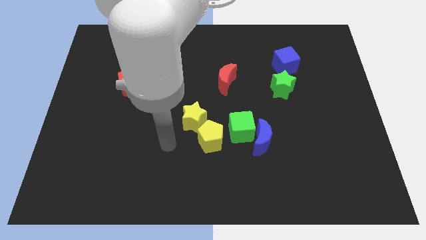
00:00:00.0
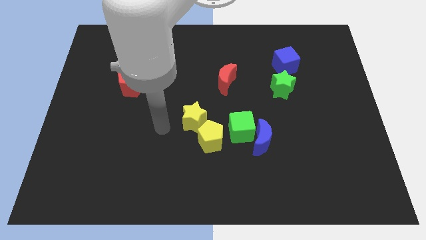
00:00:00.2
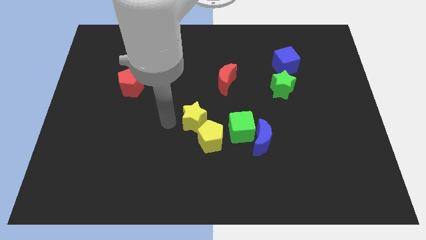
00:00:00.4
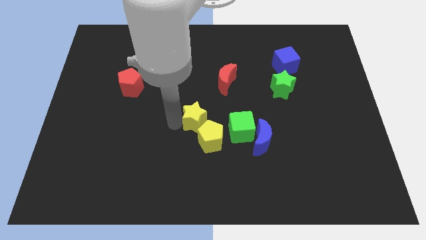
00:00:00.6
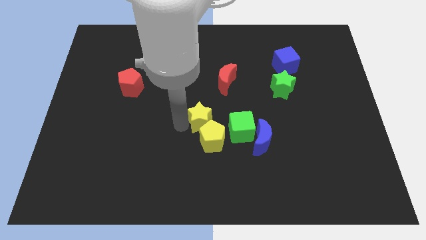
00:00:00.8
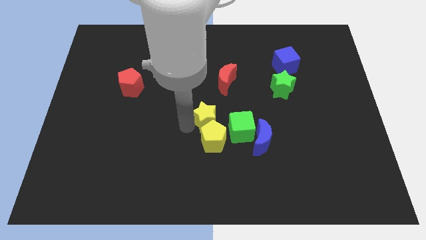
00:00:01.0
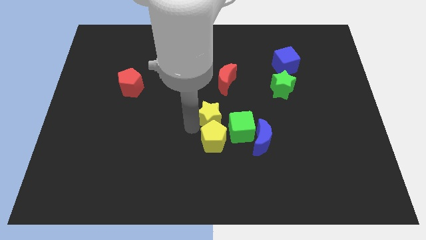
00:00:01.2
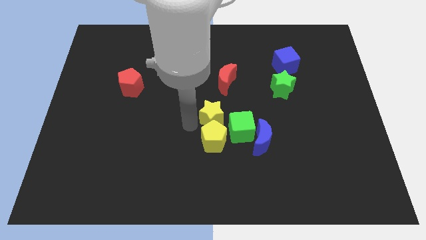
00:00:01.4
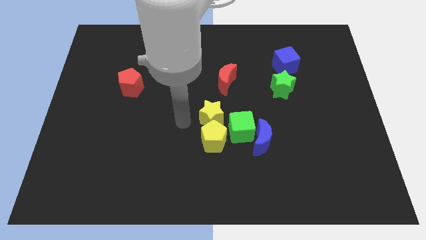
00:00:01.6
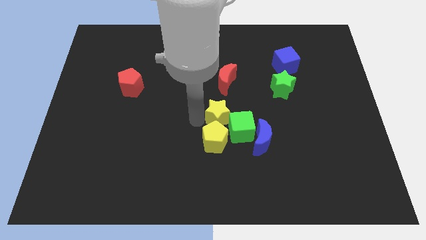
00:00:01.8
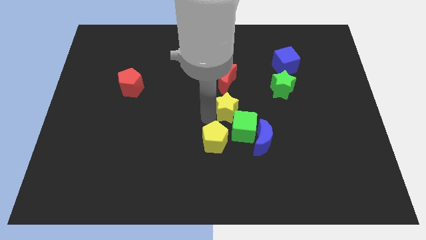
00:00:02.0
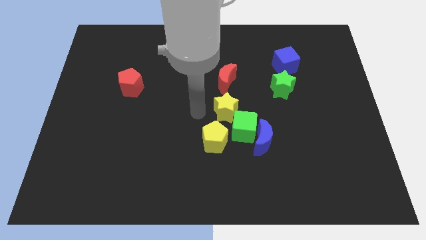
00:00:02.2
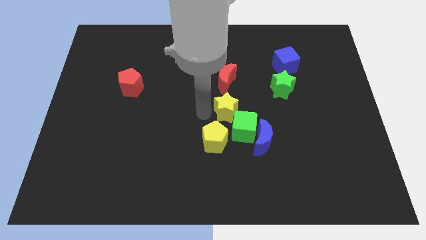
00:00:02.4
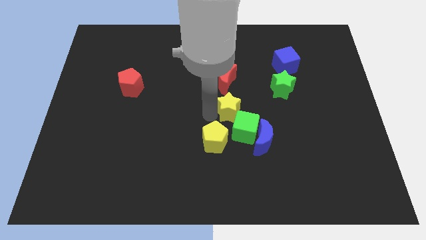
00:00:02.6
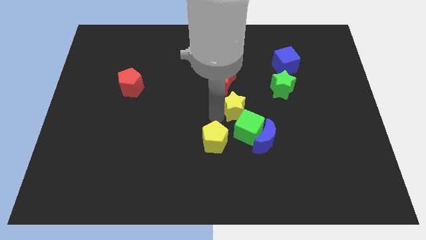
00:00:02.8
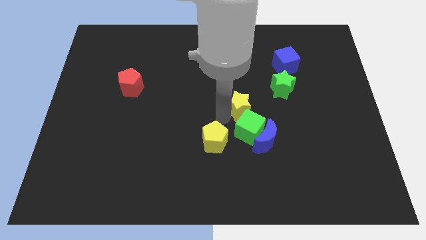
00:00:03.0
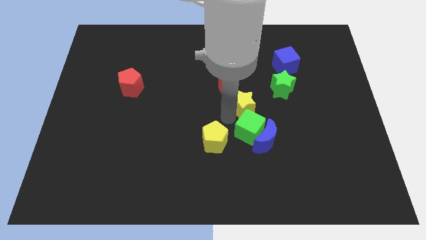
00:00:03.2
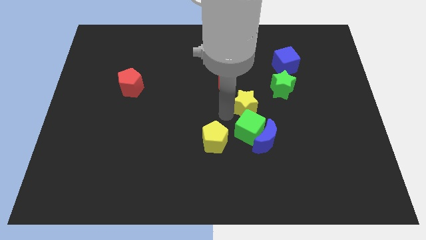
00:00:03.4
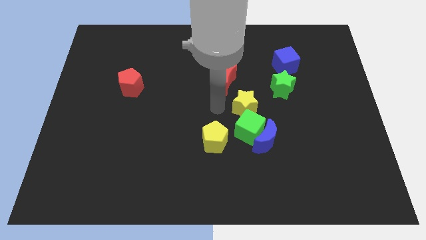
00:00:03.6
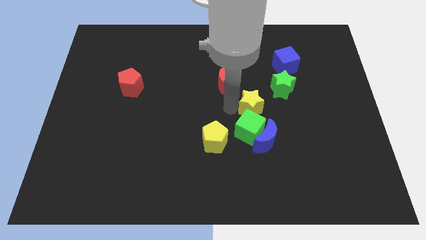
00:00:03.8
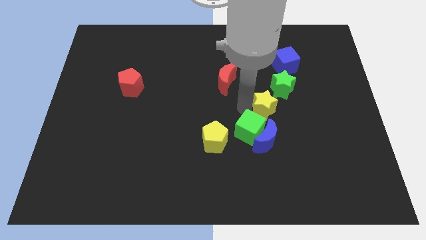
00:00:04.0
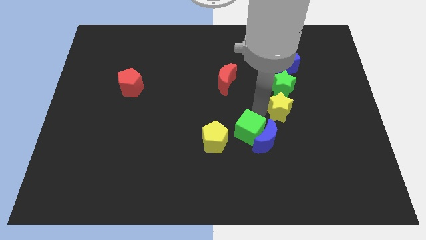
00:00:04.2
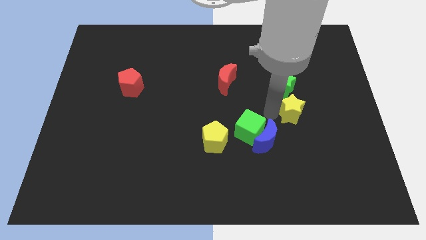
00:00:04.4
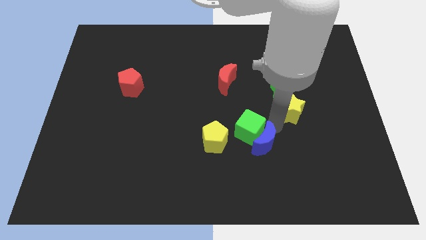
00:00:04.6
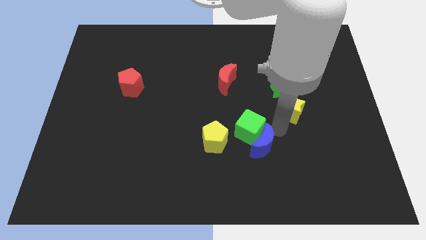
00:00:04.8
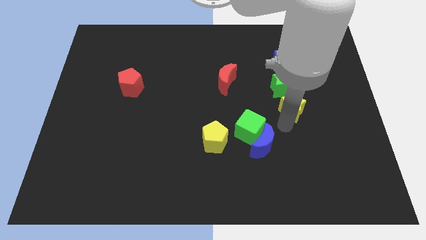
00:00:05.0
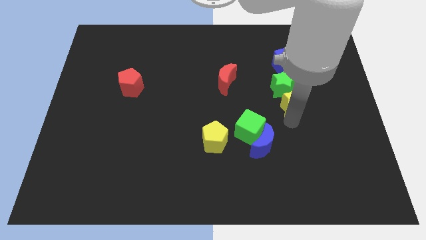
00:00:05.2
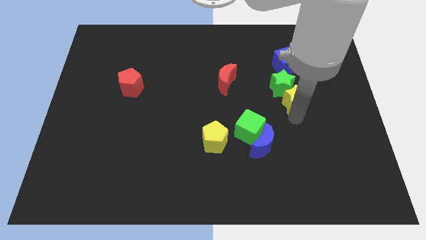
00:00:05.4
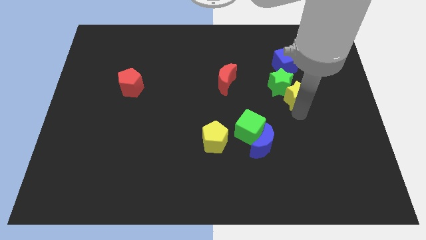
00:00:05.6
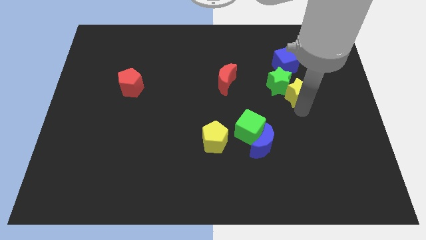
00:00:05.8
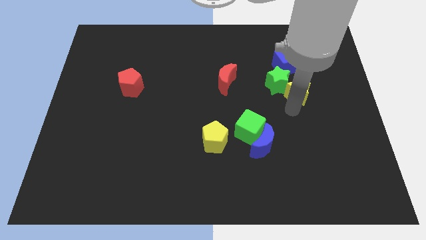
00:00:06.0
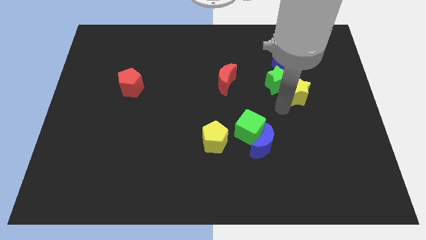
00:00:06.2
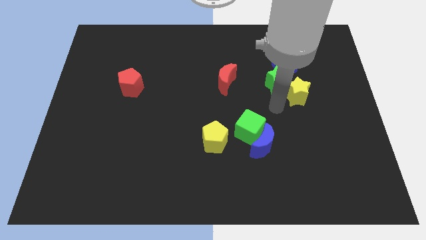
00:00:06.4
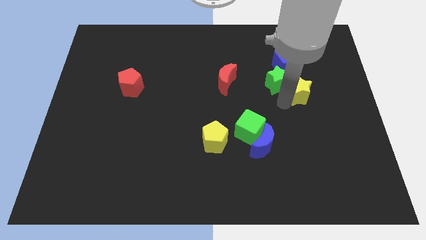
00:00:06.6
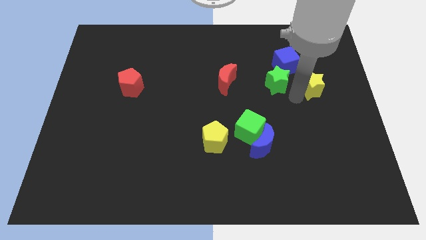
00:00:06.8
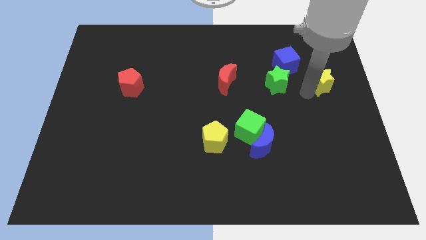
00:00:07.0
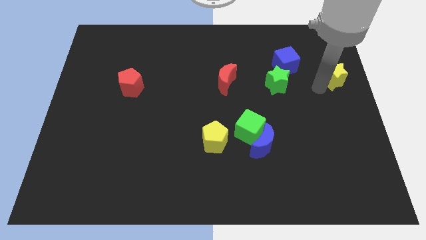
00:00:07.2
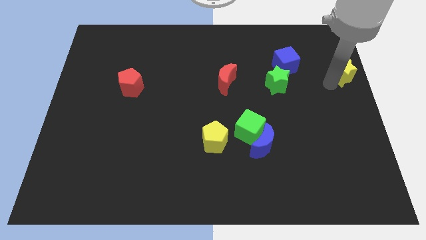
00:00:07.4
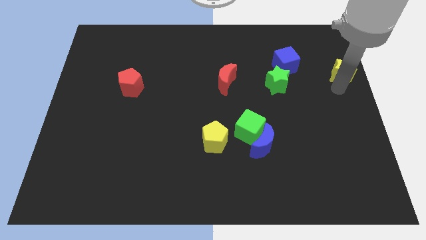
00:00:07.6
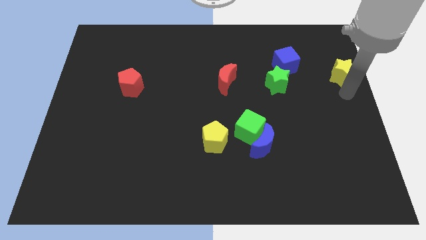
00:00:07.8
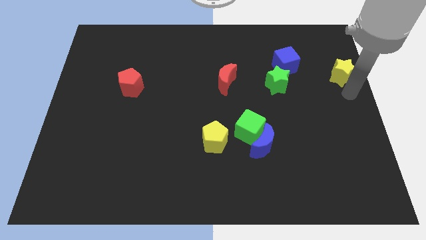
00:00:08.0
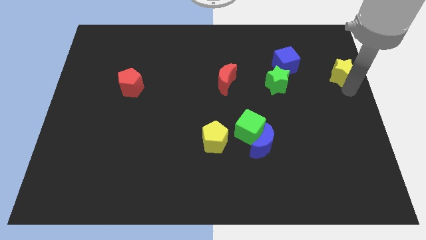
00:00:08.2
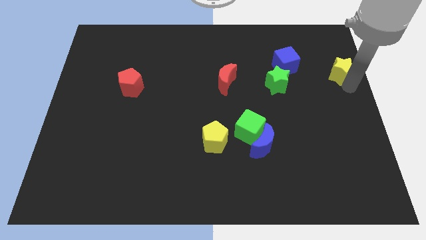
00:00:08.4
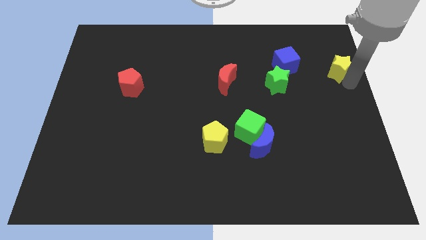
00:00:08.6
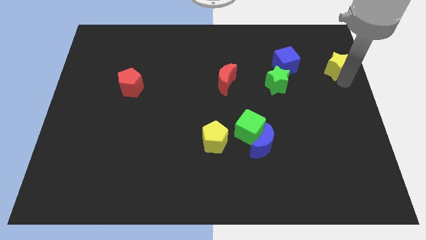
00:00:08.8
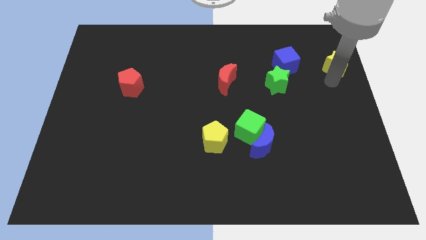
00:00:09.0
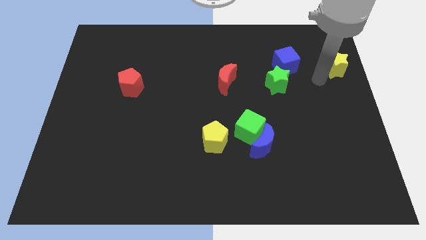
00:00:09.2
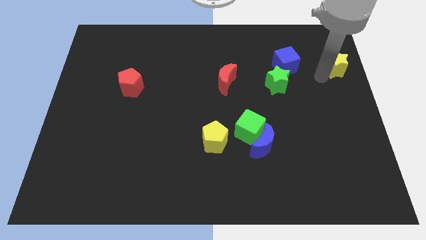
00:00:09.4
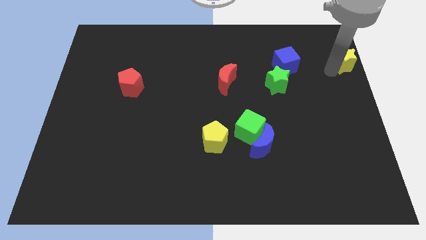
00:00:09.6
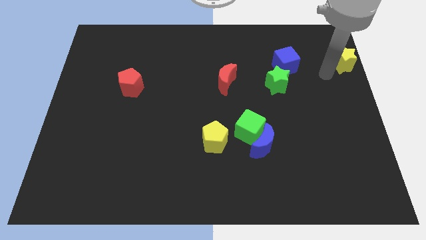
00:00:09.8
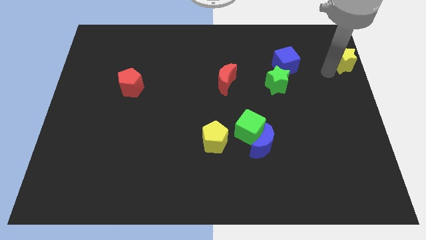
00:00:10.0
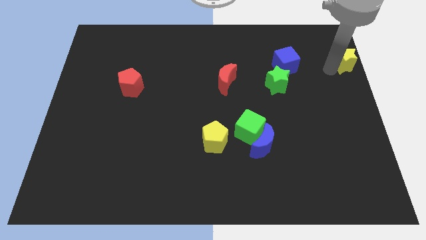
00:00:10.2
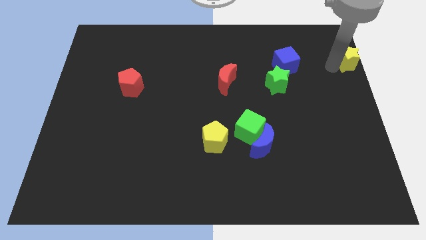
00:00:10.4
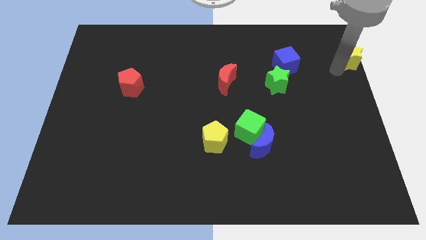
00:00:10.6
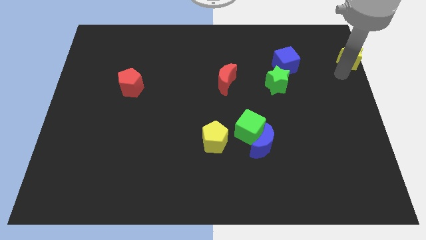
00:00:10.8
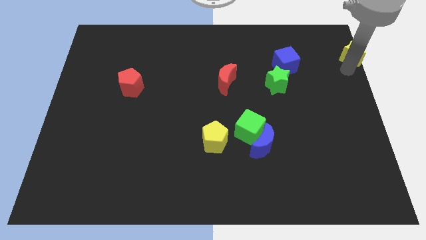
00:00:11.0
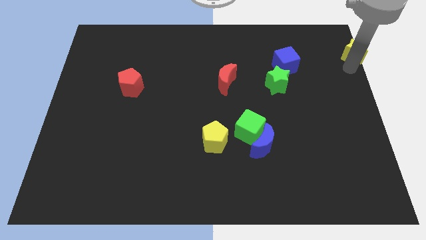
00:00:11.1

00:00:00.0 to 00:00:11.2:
slide the yellow star to the top right corner

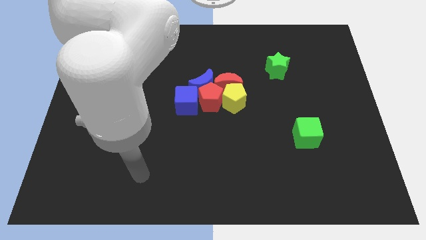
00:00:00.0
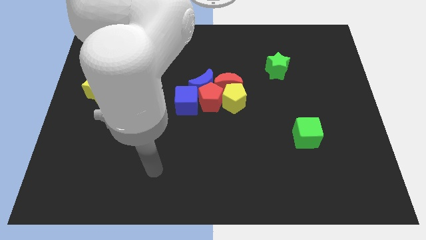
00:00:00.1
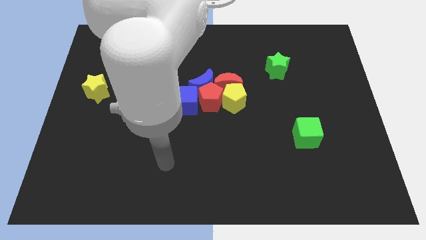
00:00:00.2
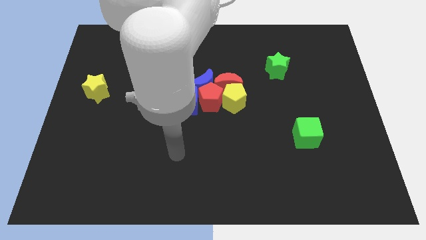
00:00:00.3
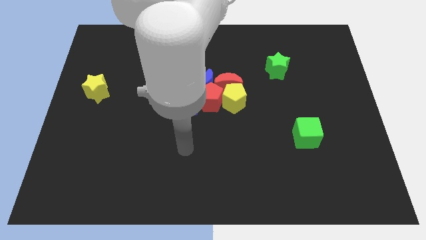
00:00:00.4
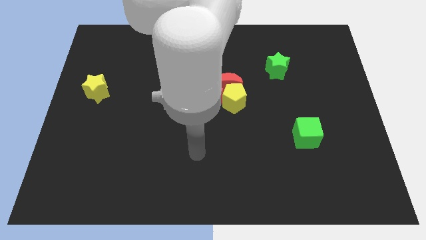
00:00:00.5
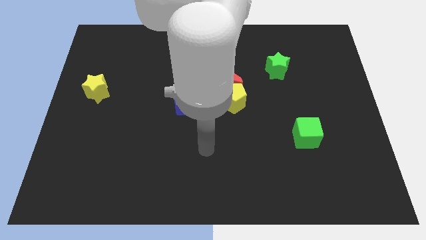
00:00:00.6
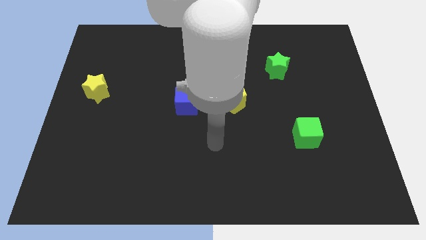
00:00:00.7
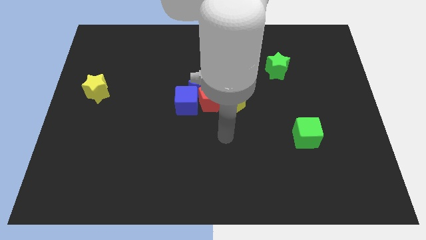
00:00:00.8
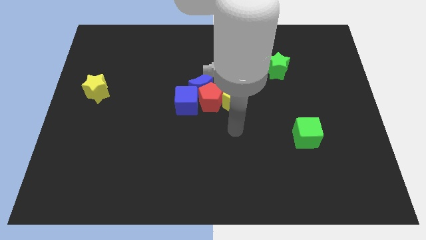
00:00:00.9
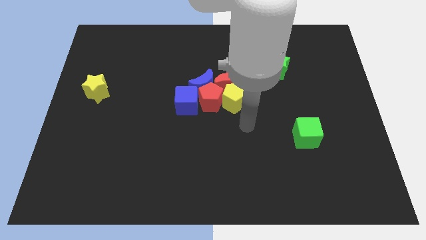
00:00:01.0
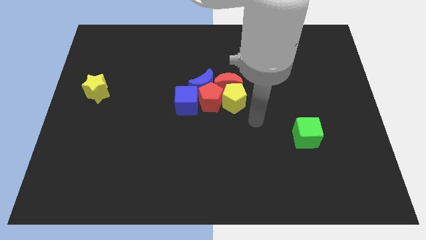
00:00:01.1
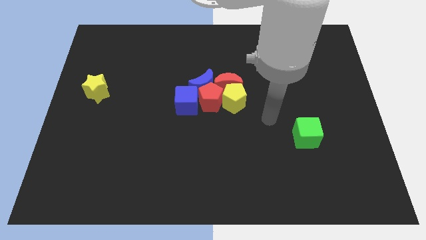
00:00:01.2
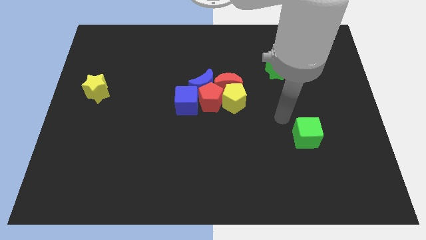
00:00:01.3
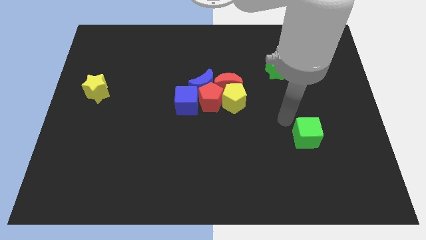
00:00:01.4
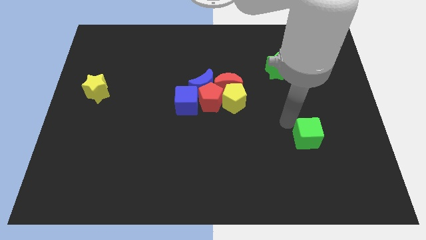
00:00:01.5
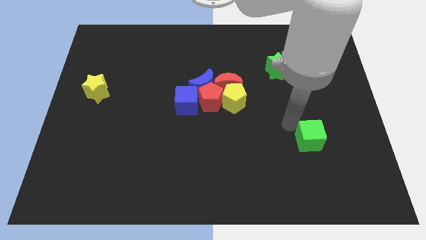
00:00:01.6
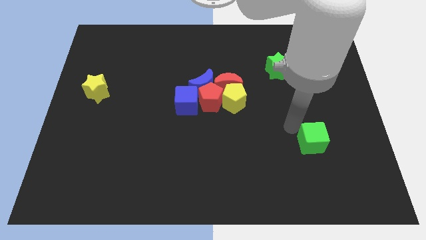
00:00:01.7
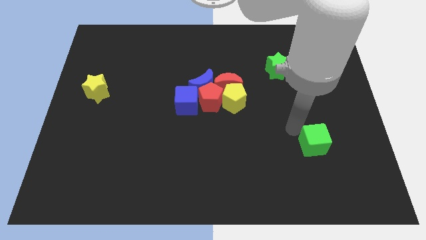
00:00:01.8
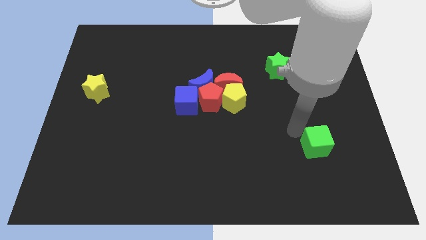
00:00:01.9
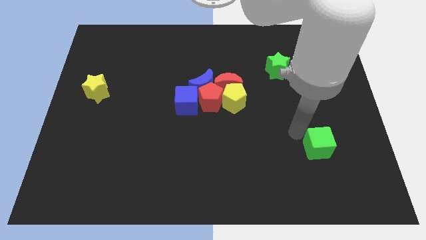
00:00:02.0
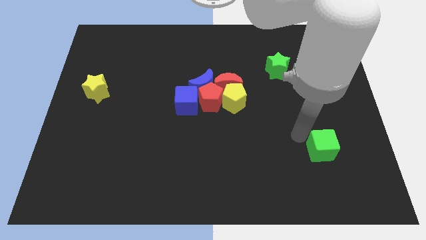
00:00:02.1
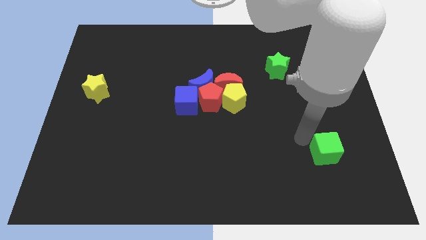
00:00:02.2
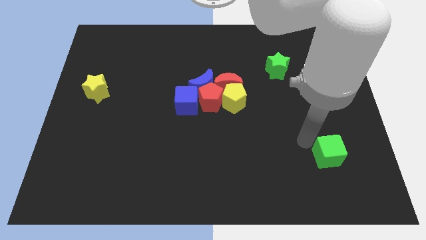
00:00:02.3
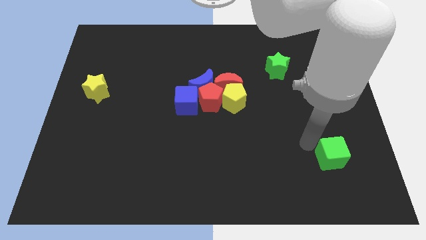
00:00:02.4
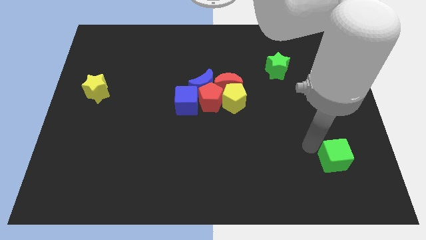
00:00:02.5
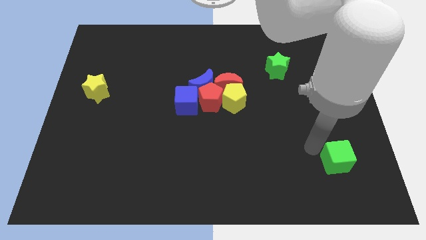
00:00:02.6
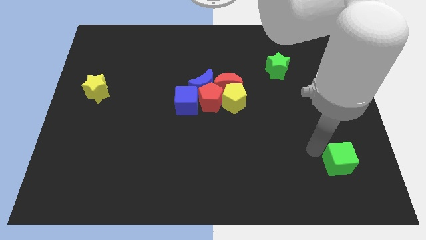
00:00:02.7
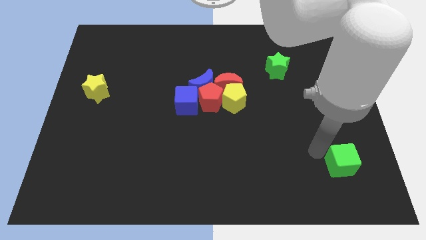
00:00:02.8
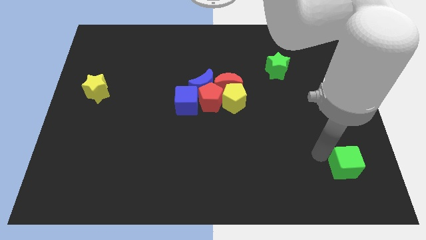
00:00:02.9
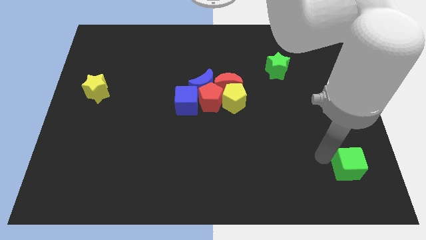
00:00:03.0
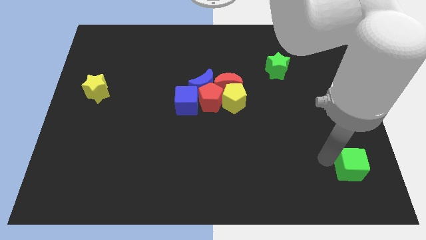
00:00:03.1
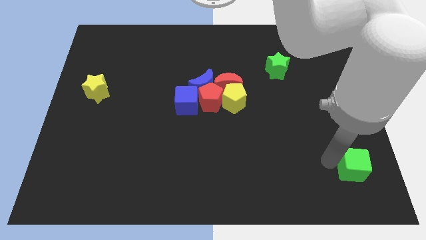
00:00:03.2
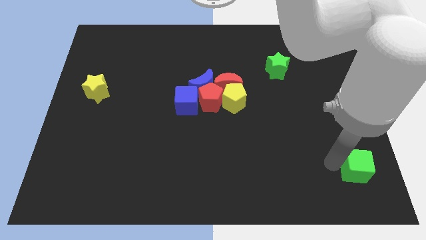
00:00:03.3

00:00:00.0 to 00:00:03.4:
push the green cube to the bottom right of the board
